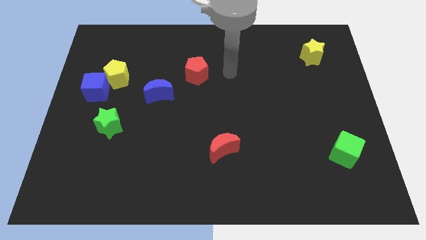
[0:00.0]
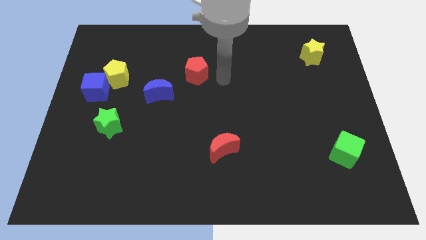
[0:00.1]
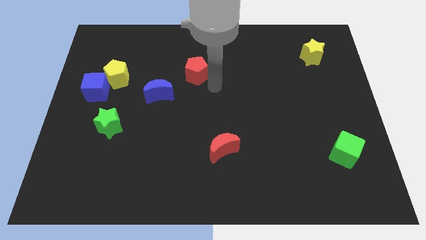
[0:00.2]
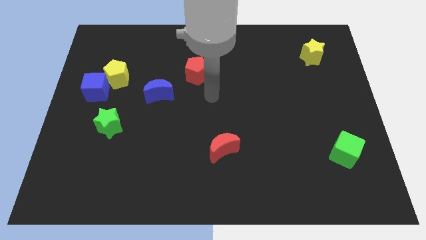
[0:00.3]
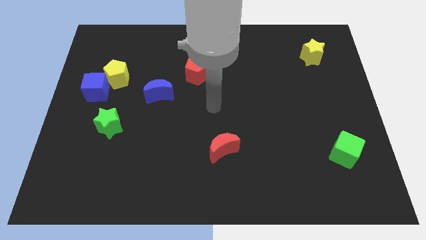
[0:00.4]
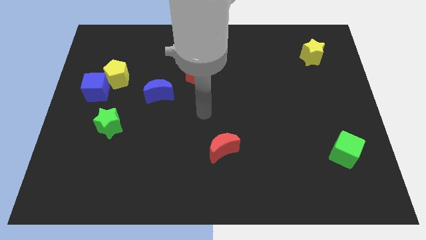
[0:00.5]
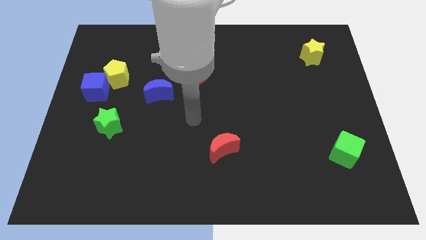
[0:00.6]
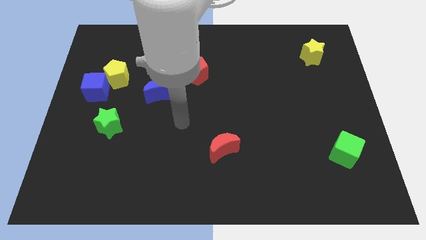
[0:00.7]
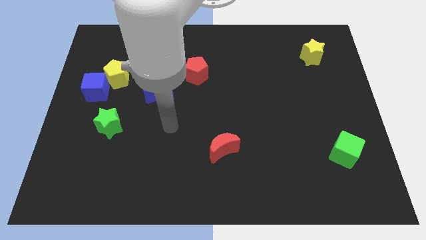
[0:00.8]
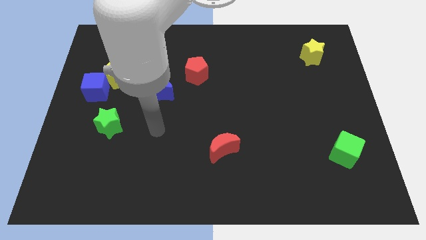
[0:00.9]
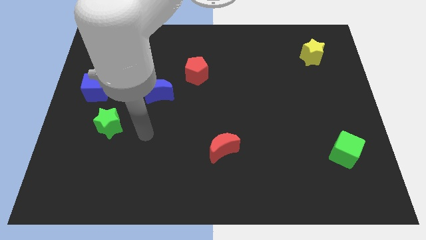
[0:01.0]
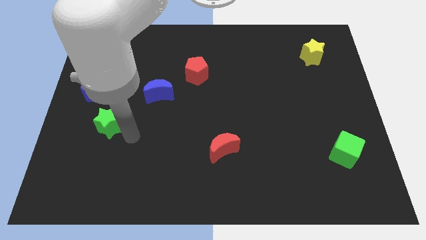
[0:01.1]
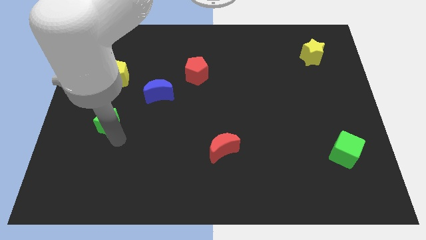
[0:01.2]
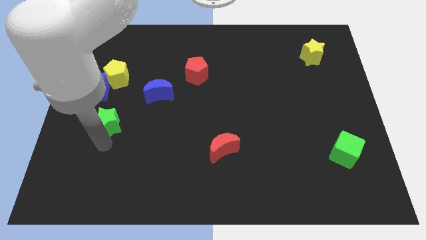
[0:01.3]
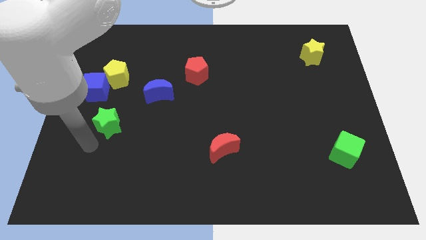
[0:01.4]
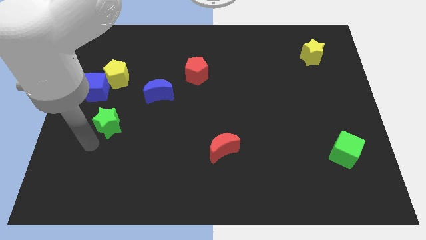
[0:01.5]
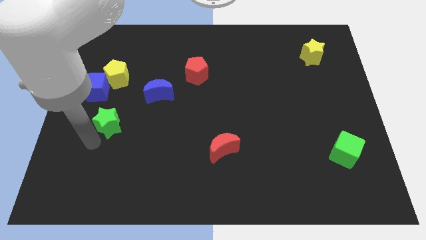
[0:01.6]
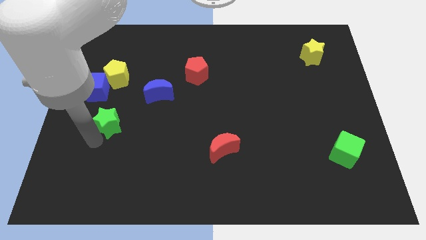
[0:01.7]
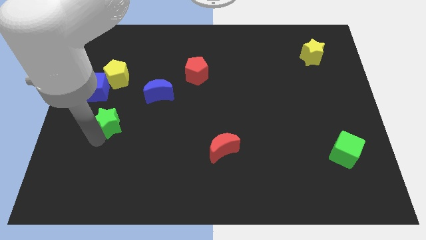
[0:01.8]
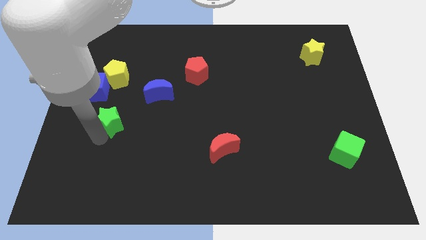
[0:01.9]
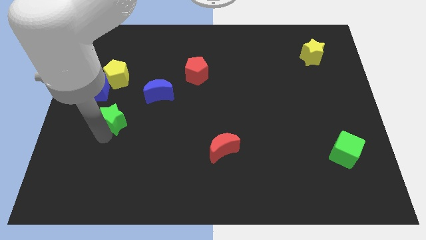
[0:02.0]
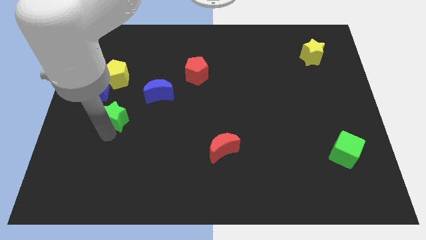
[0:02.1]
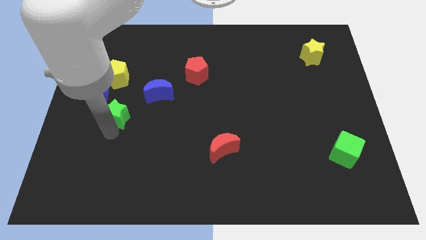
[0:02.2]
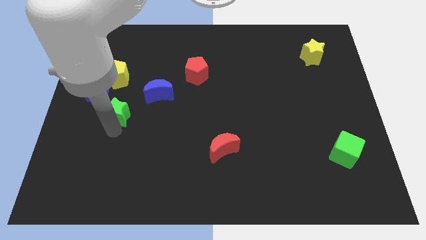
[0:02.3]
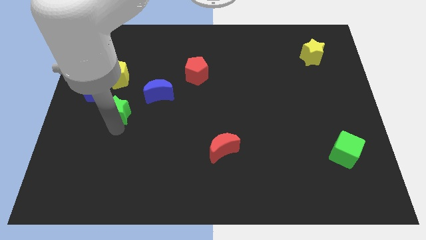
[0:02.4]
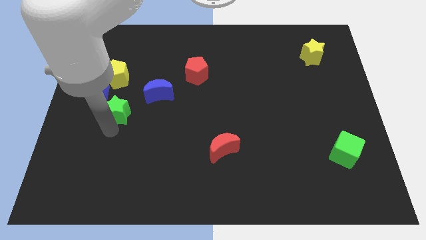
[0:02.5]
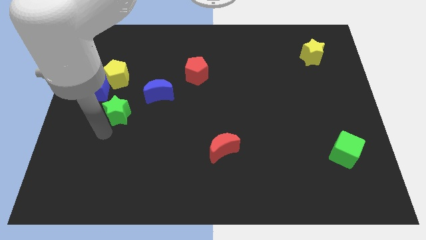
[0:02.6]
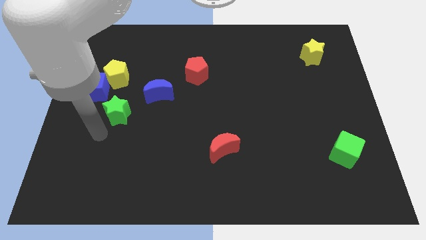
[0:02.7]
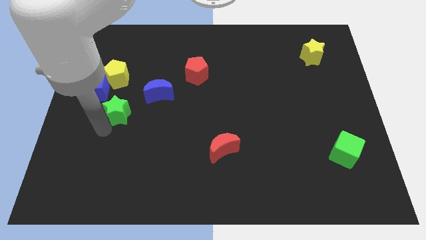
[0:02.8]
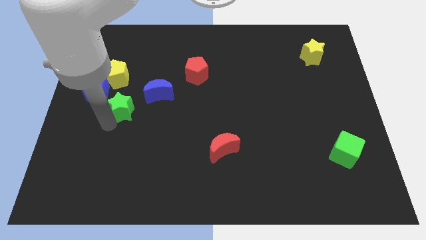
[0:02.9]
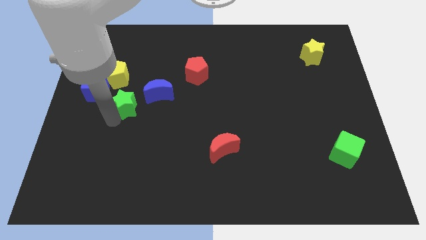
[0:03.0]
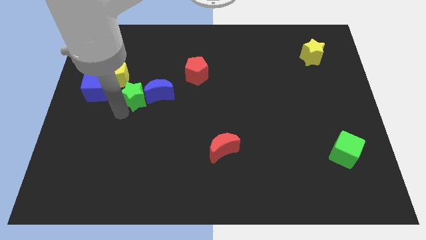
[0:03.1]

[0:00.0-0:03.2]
push the green star up and right diagonally a little bit

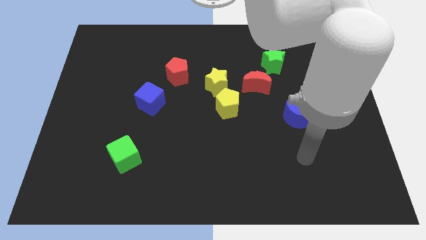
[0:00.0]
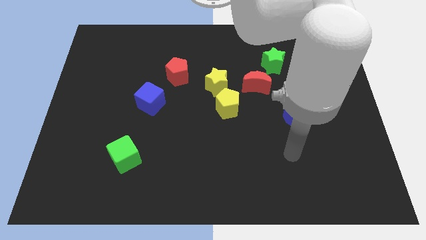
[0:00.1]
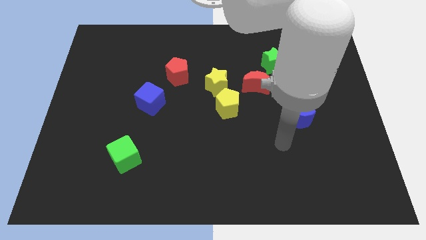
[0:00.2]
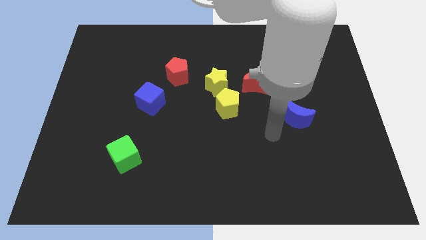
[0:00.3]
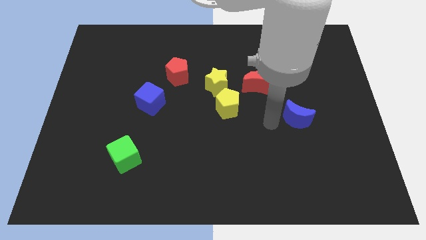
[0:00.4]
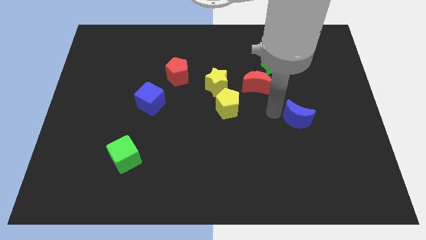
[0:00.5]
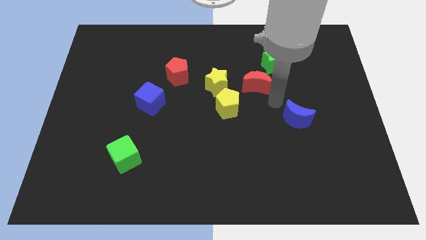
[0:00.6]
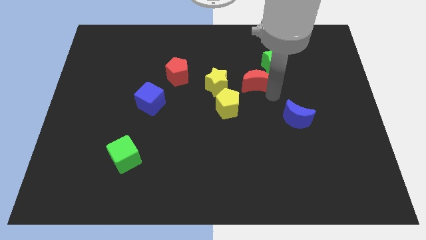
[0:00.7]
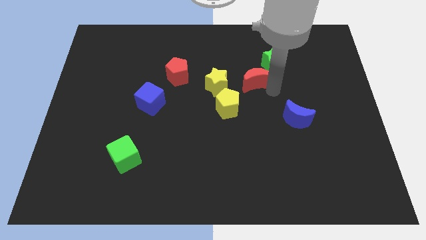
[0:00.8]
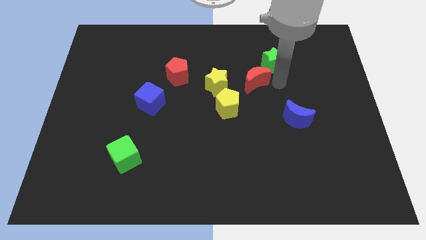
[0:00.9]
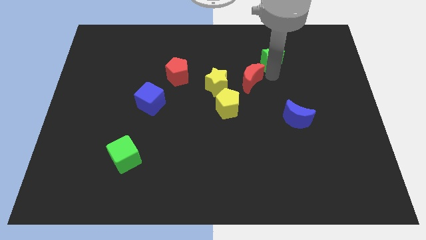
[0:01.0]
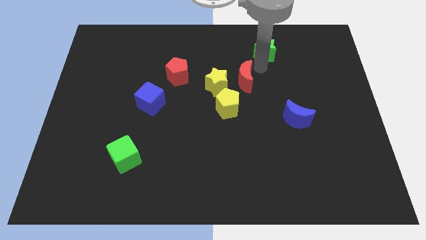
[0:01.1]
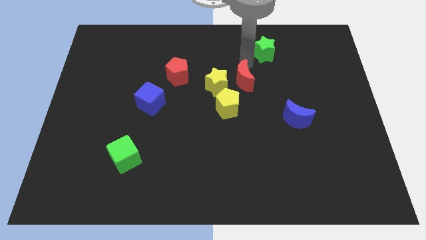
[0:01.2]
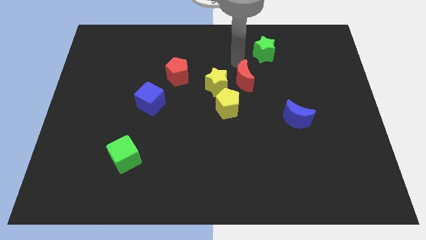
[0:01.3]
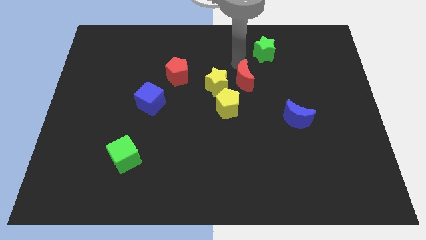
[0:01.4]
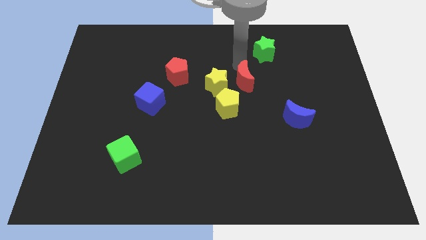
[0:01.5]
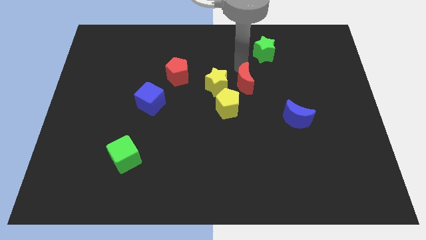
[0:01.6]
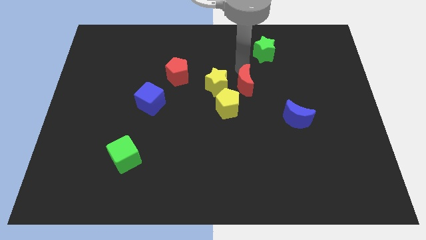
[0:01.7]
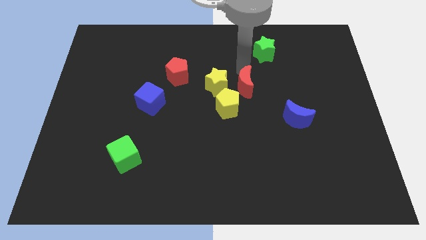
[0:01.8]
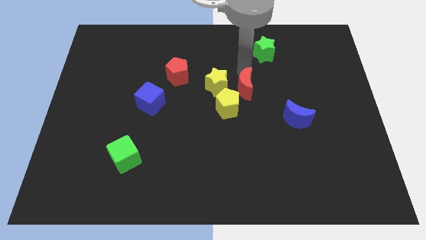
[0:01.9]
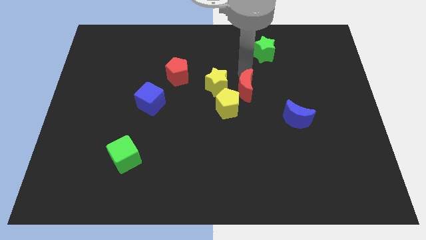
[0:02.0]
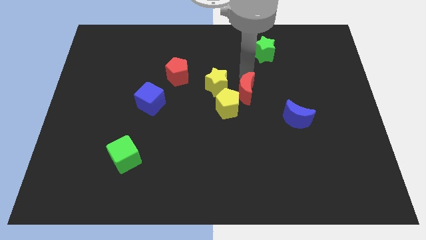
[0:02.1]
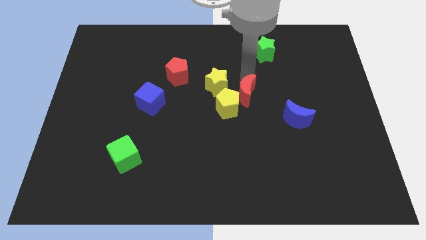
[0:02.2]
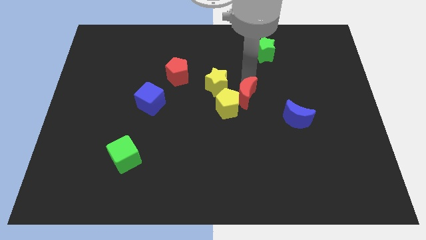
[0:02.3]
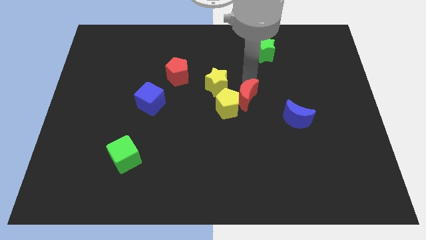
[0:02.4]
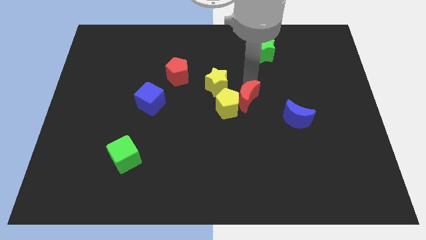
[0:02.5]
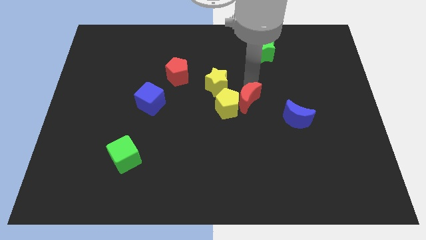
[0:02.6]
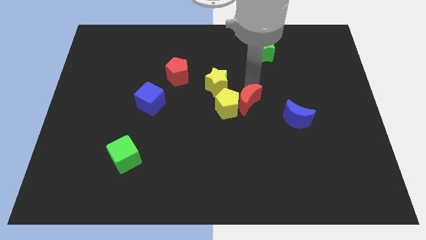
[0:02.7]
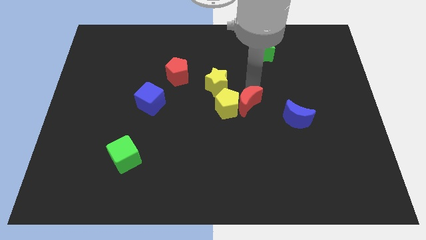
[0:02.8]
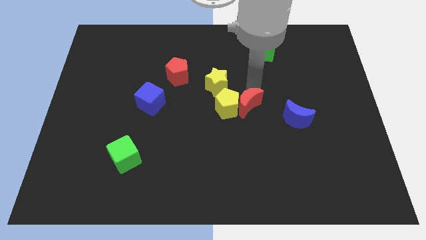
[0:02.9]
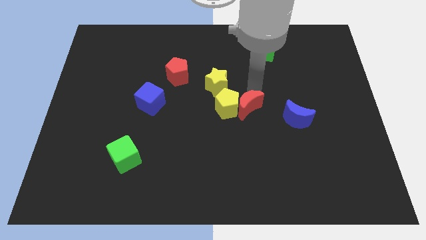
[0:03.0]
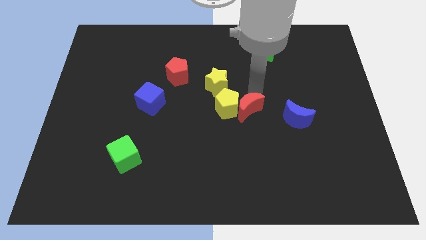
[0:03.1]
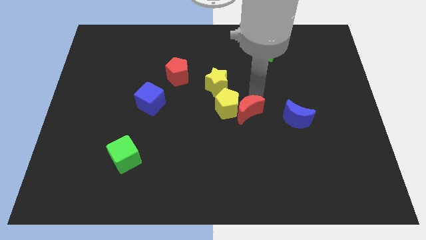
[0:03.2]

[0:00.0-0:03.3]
slightly push the red moon downwards and to the left

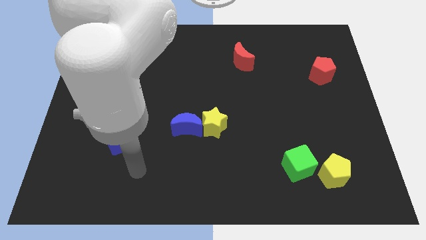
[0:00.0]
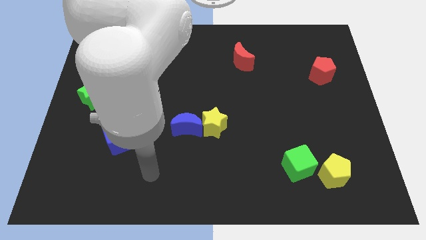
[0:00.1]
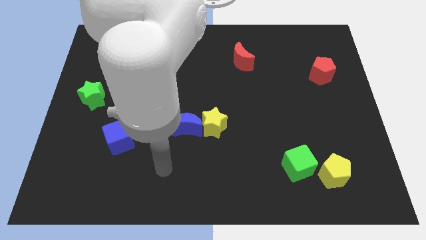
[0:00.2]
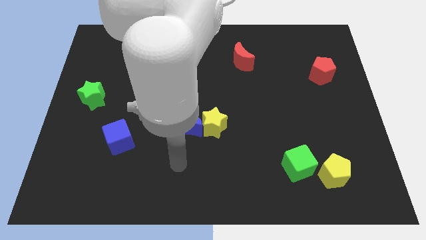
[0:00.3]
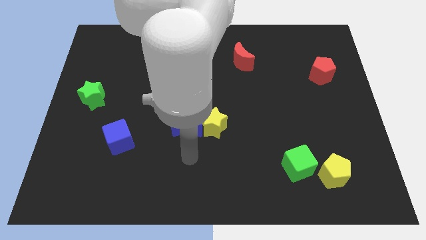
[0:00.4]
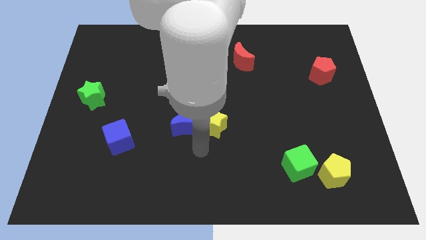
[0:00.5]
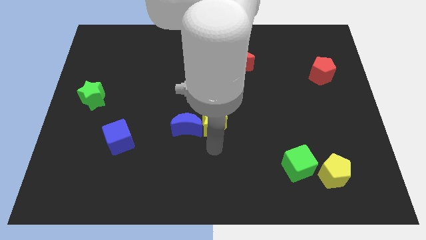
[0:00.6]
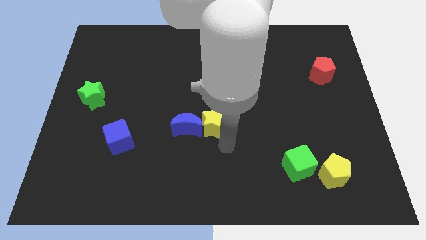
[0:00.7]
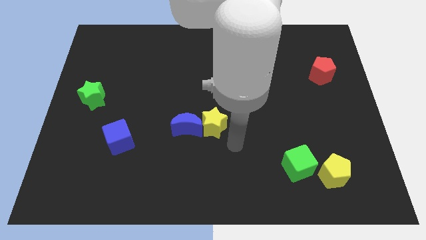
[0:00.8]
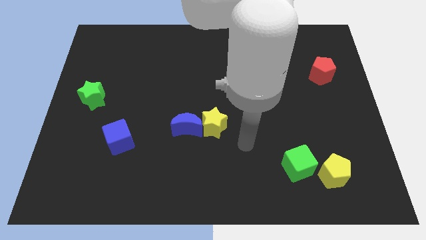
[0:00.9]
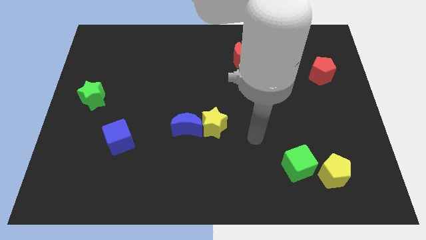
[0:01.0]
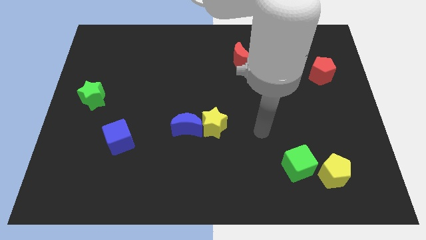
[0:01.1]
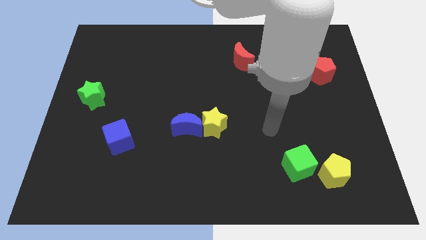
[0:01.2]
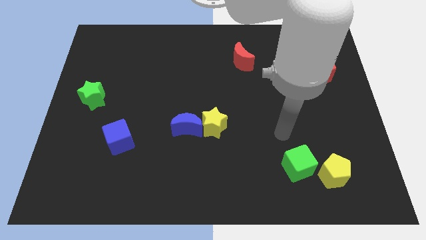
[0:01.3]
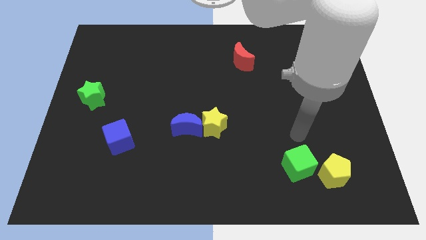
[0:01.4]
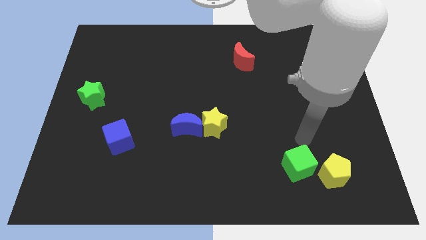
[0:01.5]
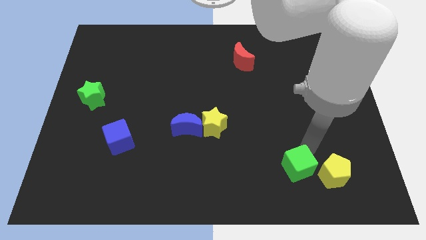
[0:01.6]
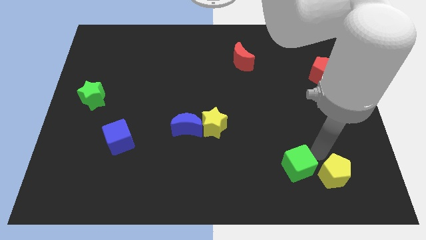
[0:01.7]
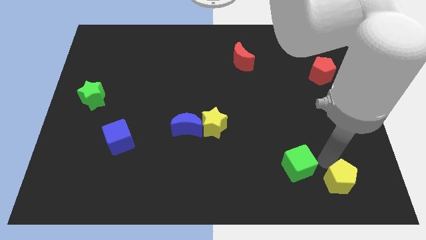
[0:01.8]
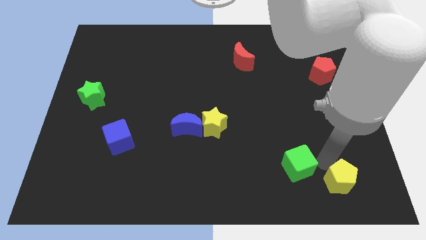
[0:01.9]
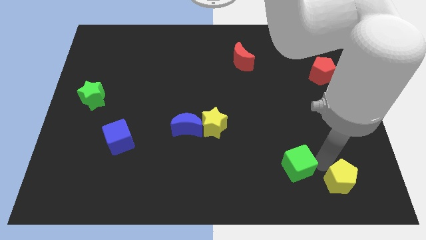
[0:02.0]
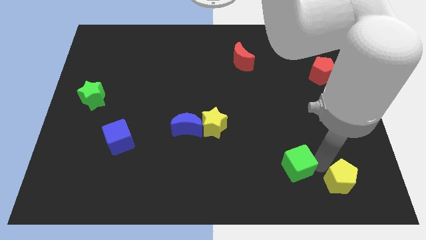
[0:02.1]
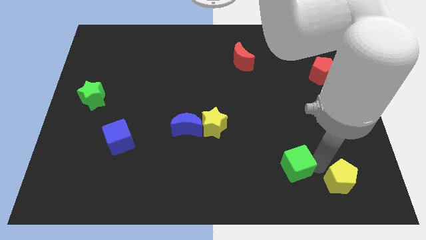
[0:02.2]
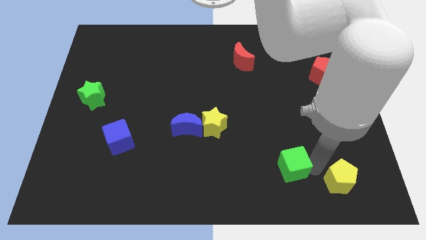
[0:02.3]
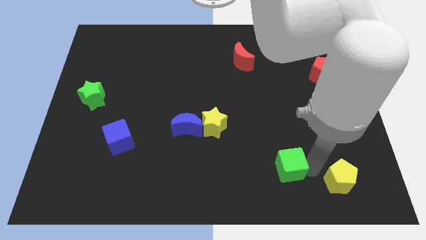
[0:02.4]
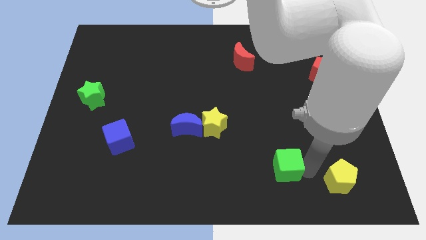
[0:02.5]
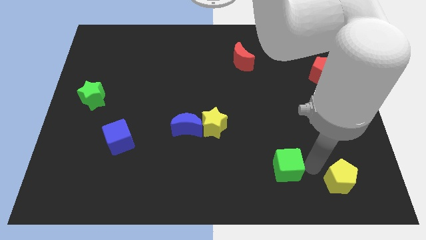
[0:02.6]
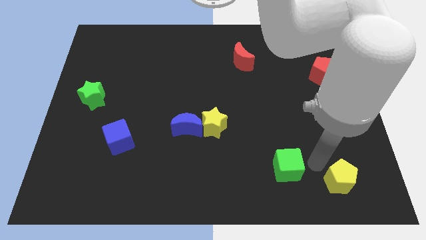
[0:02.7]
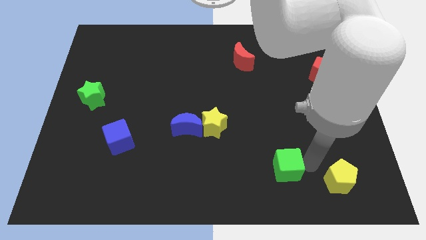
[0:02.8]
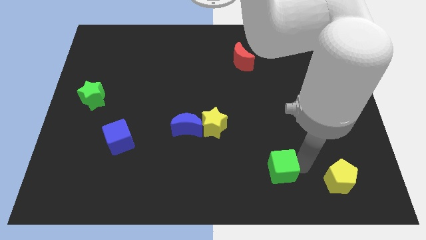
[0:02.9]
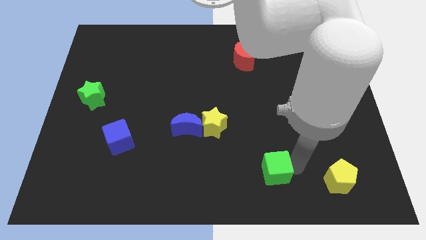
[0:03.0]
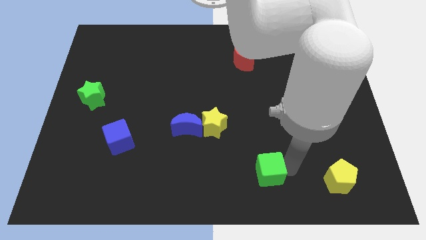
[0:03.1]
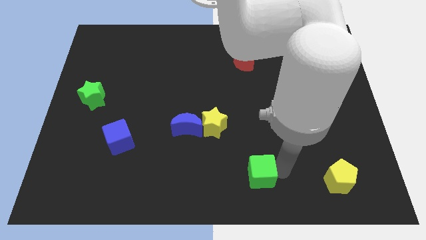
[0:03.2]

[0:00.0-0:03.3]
push the green cube left slightly
